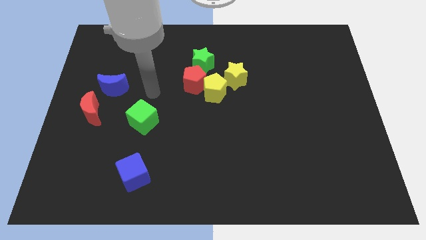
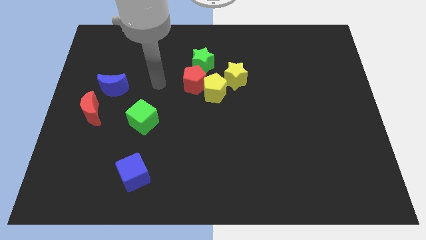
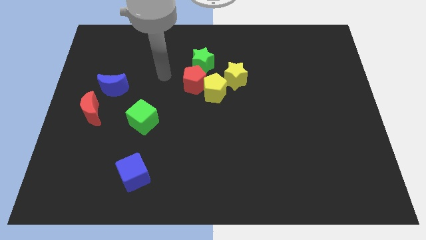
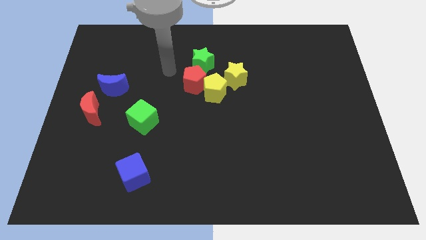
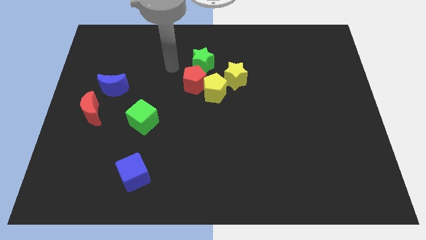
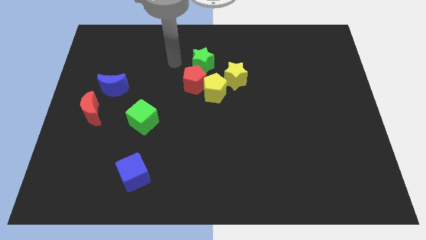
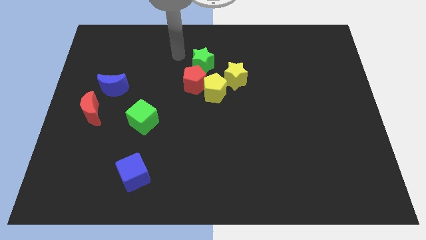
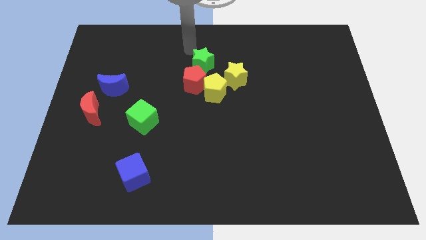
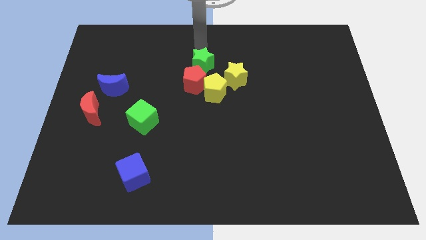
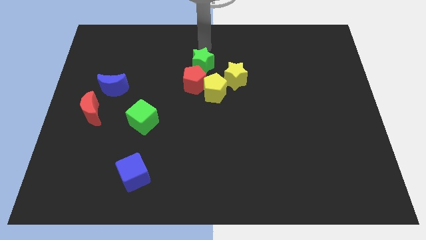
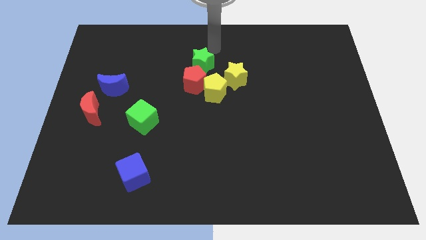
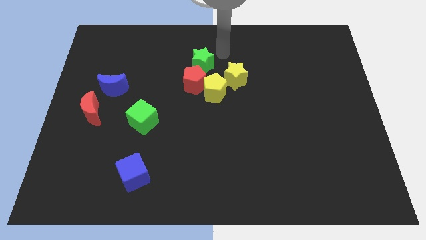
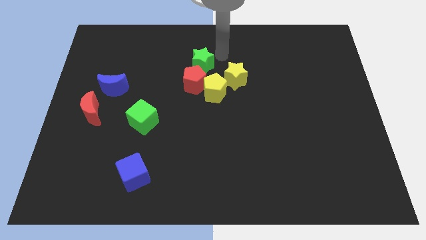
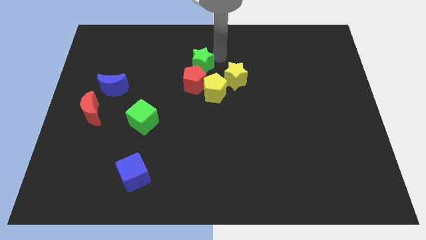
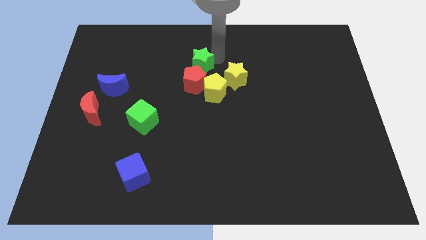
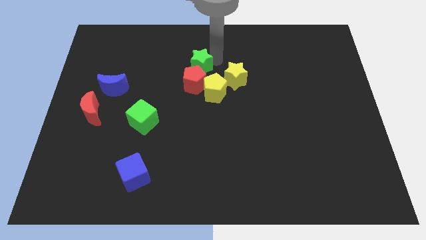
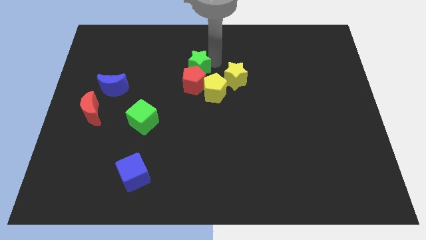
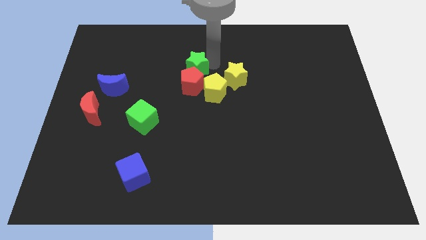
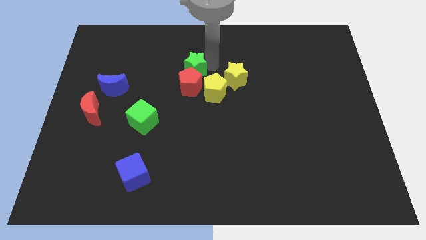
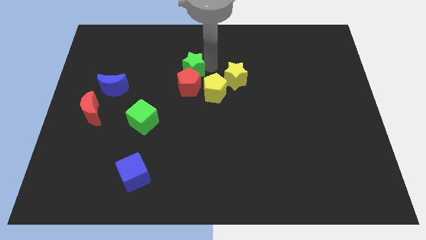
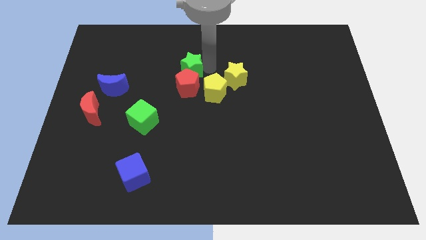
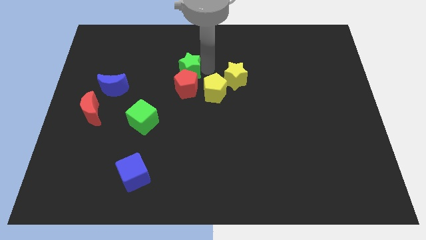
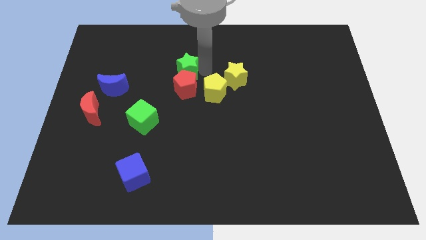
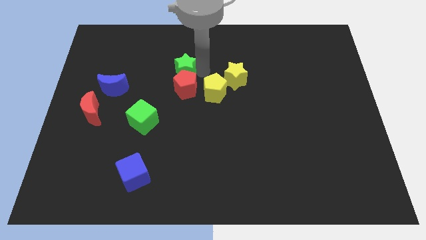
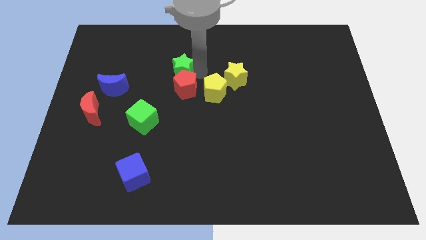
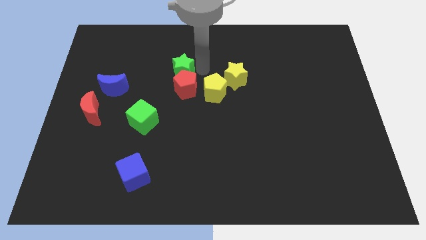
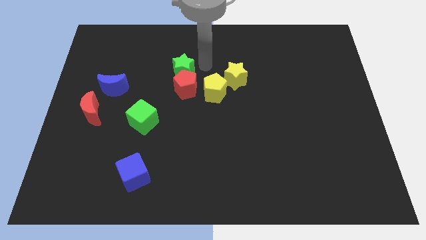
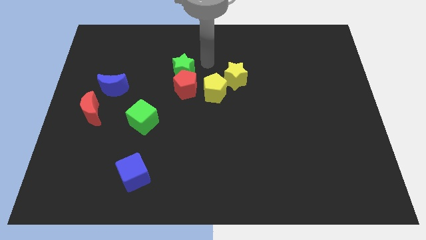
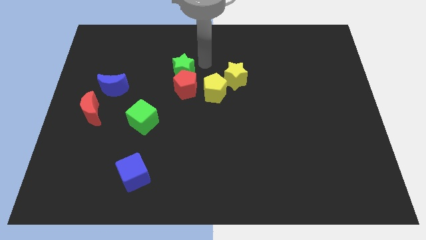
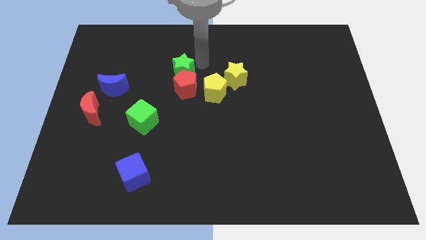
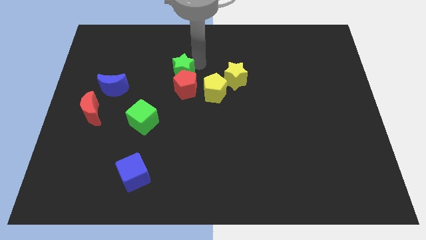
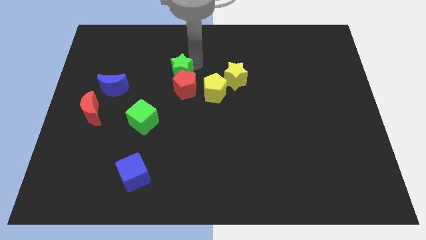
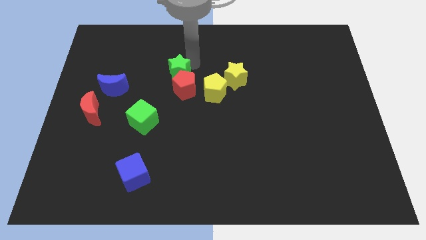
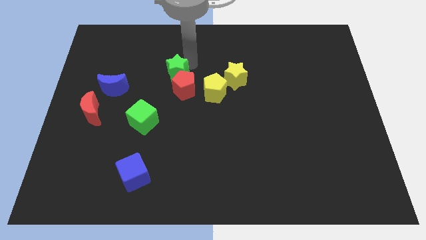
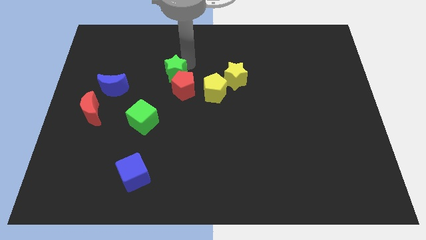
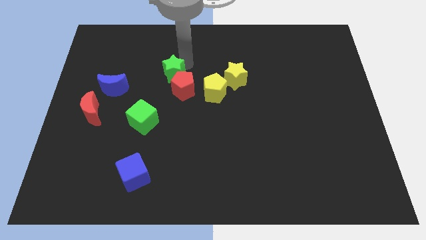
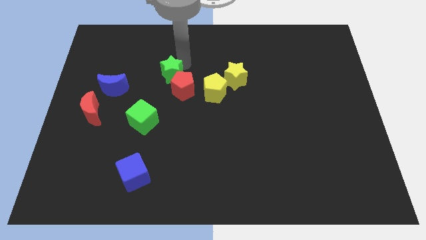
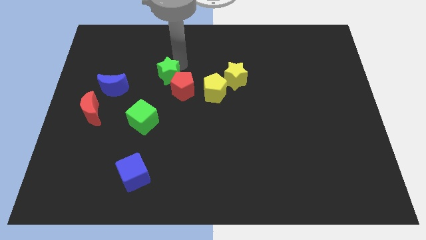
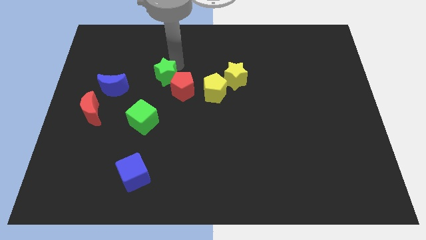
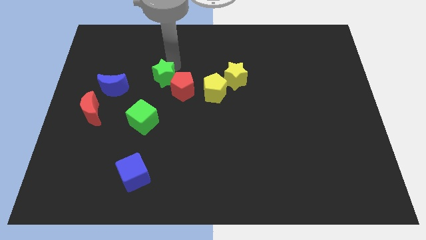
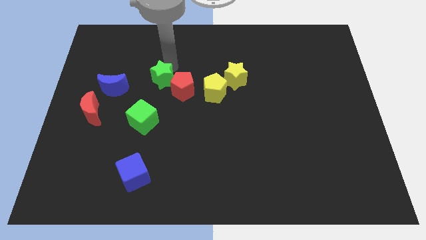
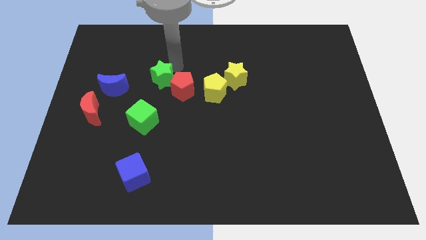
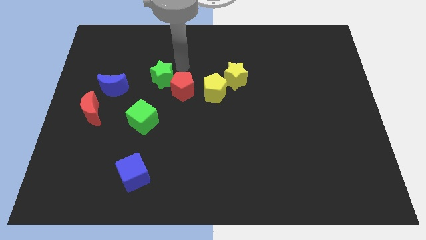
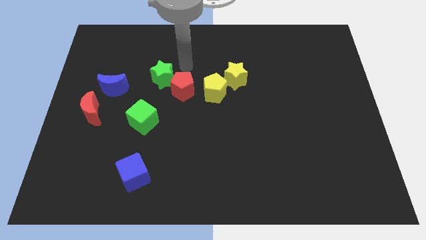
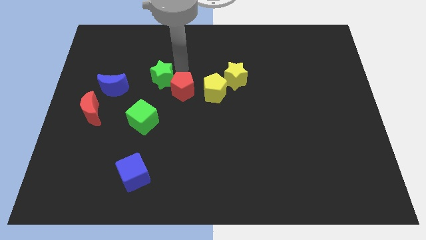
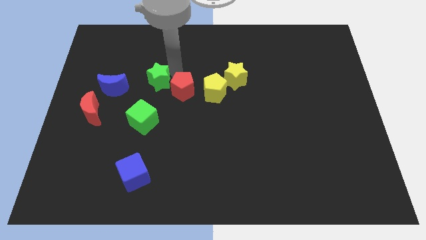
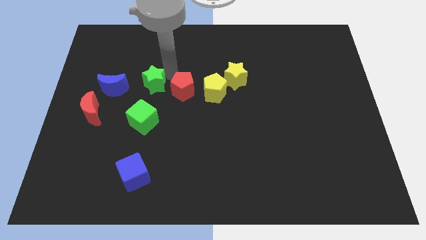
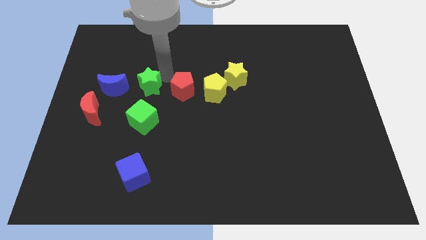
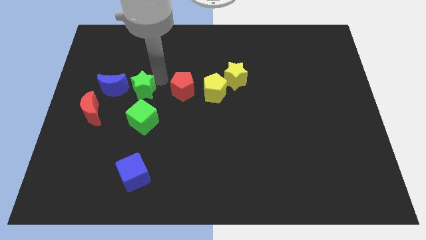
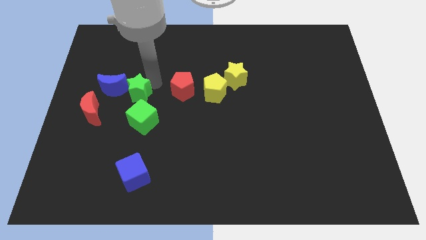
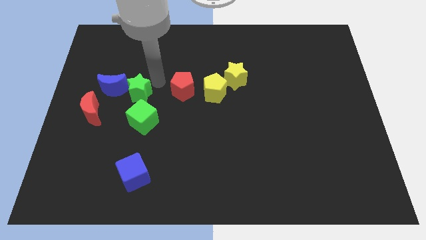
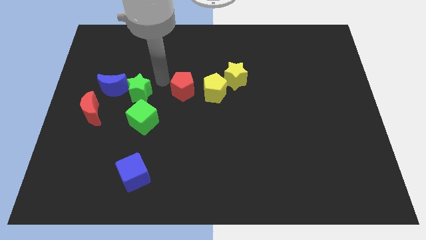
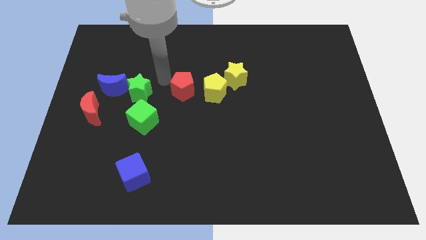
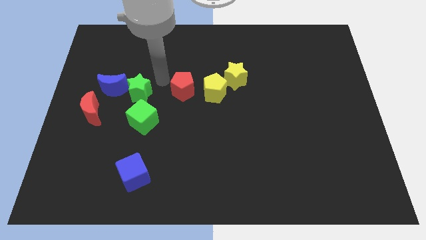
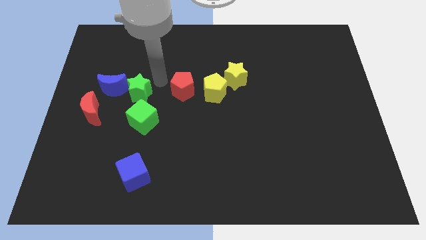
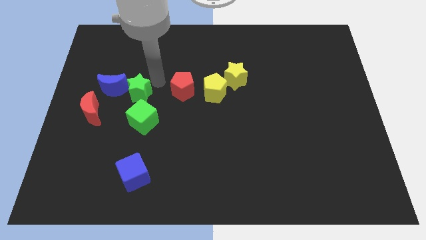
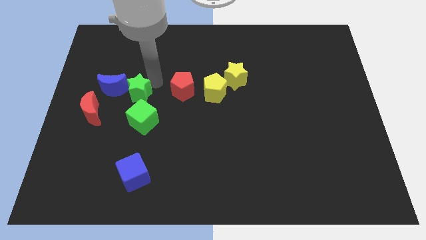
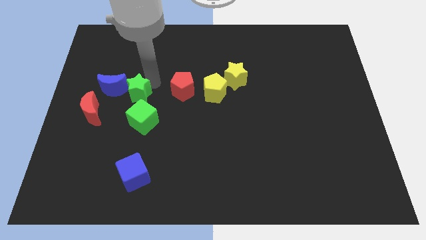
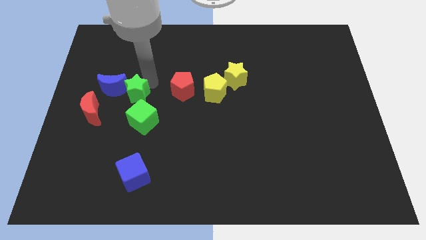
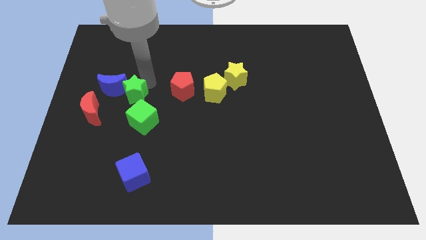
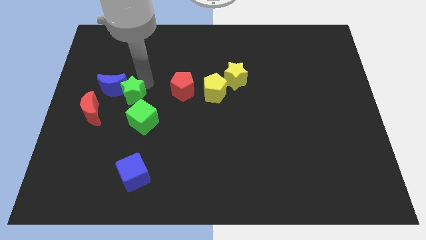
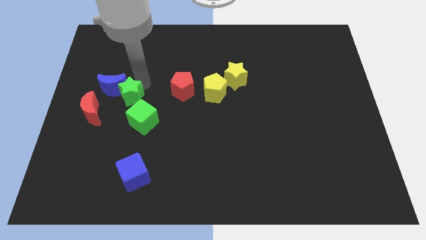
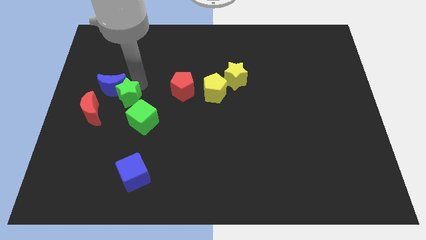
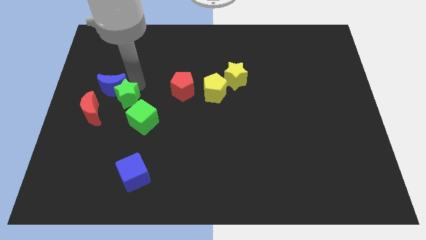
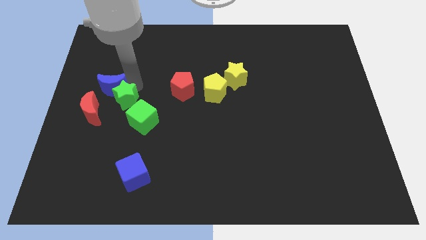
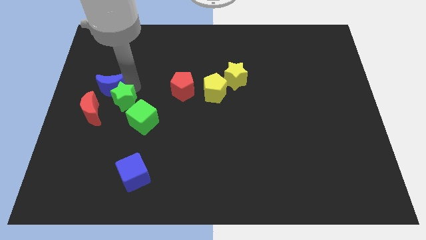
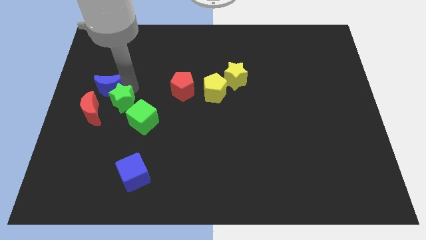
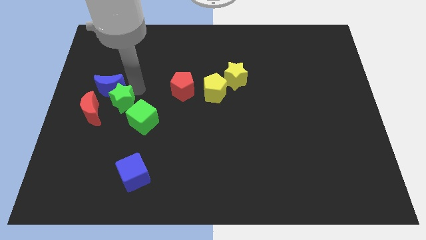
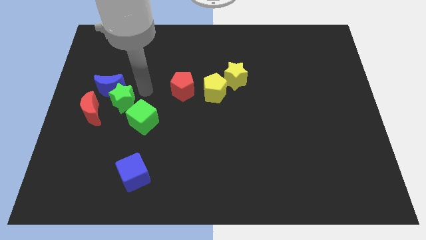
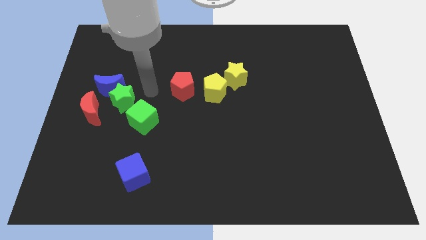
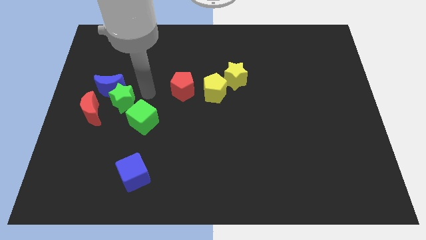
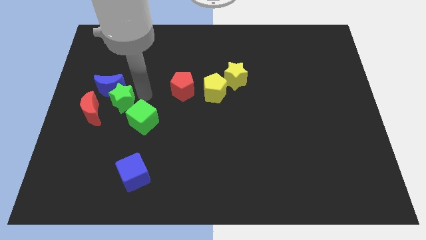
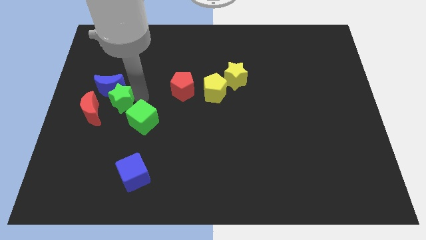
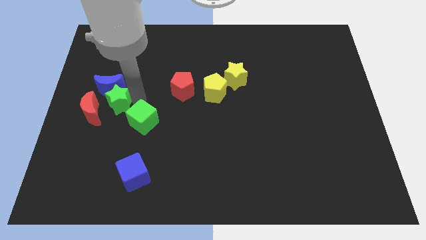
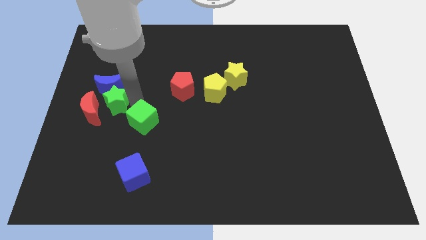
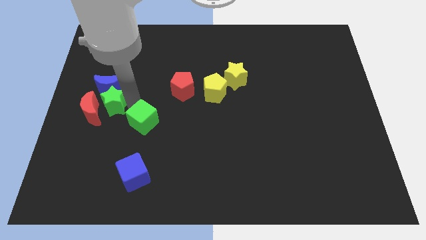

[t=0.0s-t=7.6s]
push the green star towards the red moon
